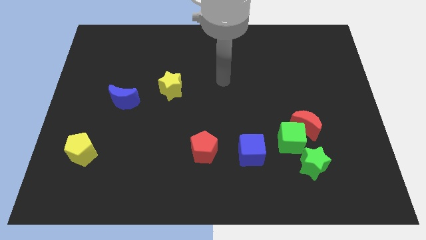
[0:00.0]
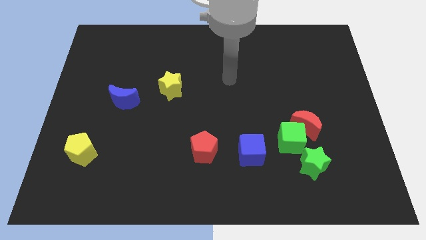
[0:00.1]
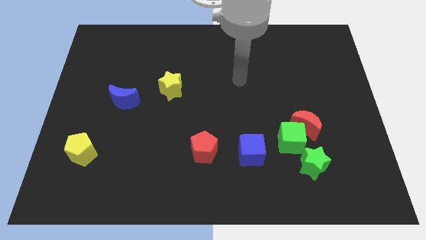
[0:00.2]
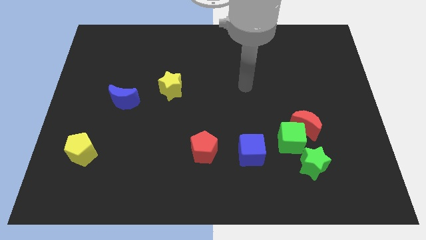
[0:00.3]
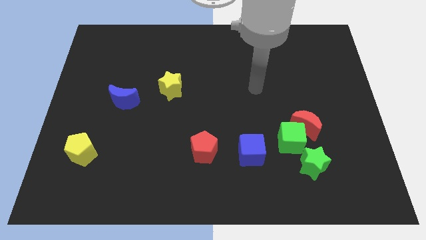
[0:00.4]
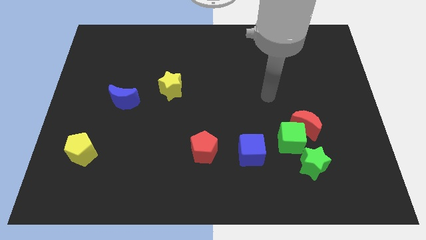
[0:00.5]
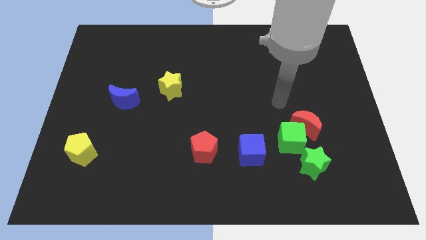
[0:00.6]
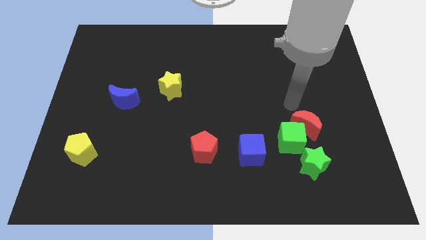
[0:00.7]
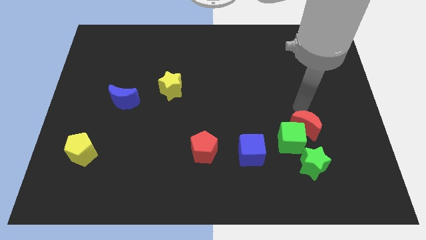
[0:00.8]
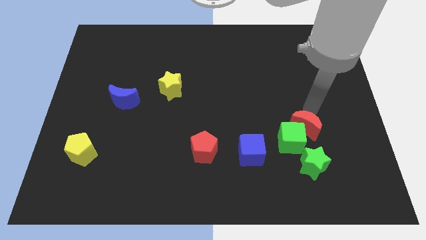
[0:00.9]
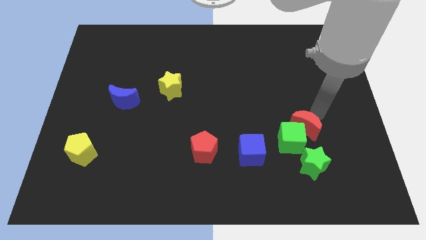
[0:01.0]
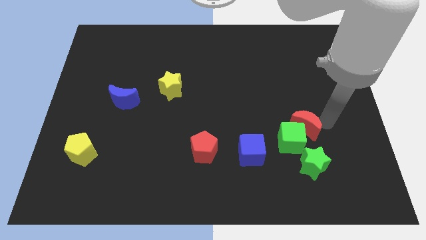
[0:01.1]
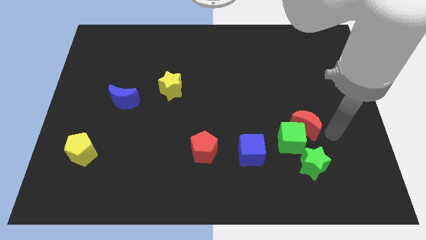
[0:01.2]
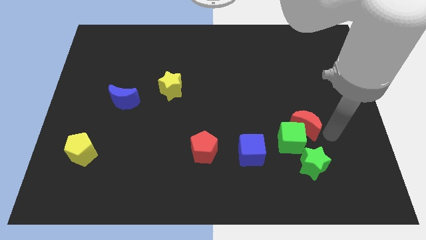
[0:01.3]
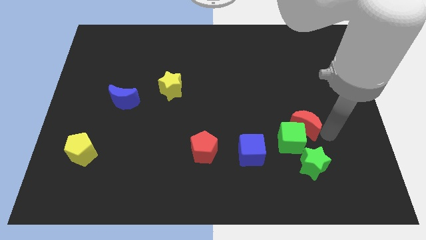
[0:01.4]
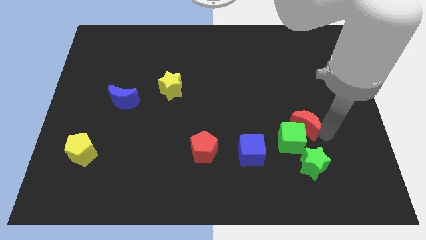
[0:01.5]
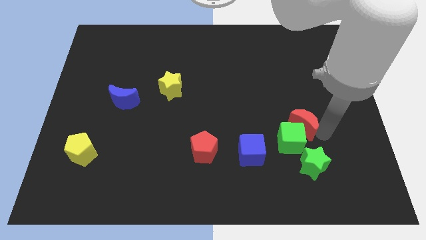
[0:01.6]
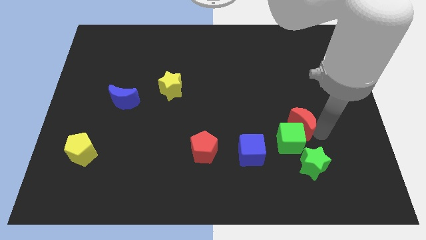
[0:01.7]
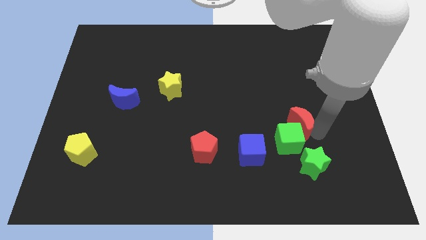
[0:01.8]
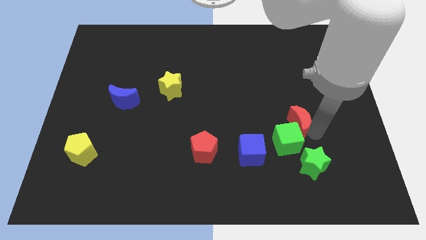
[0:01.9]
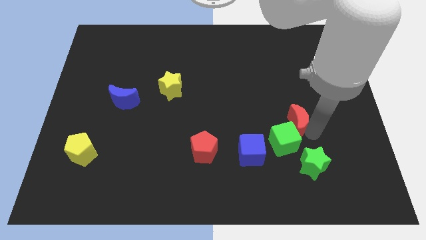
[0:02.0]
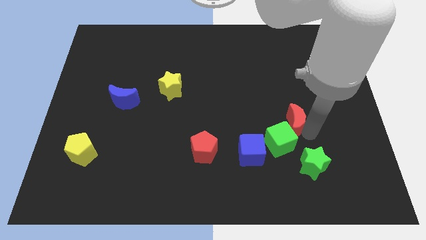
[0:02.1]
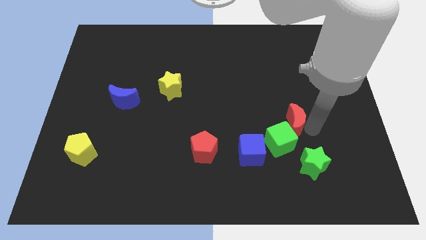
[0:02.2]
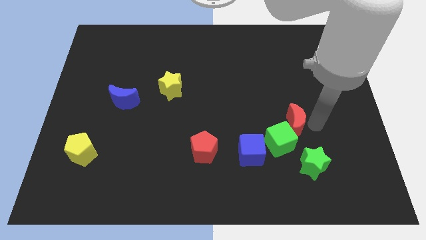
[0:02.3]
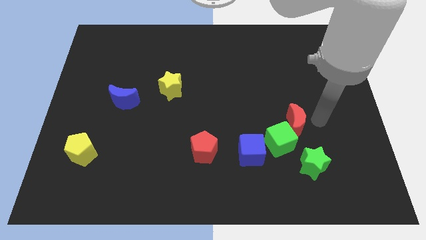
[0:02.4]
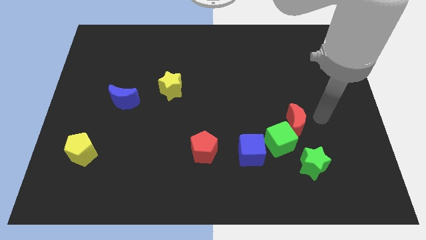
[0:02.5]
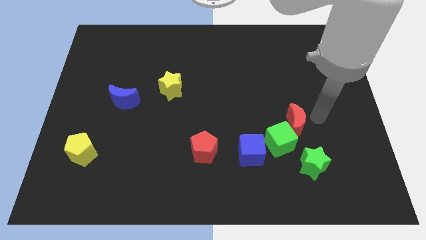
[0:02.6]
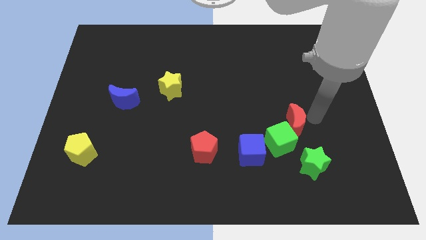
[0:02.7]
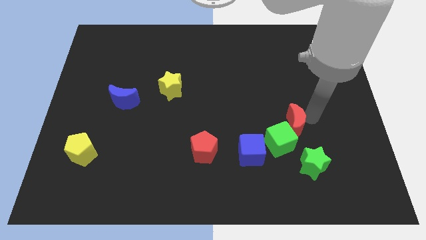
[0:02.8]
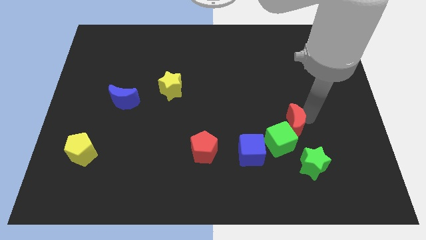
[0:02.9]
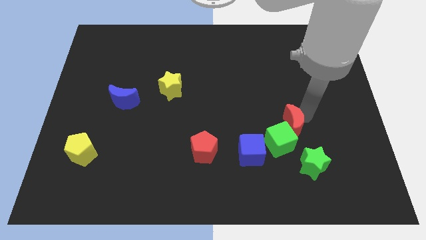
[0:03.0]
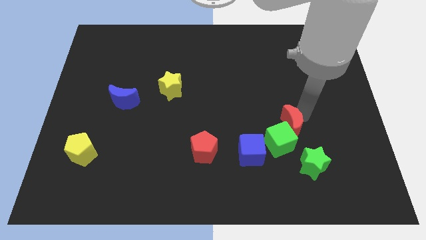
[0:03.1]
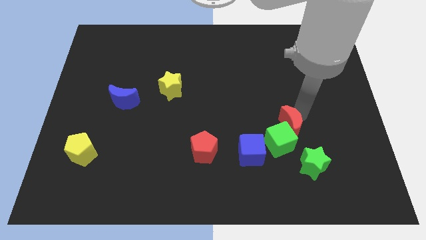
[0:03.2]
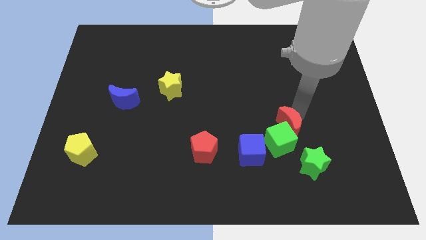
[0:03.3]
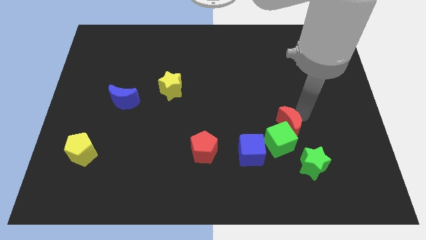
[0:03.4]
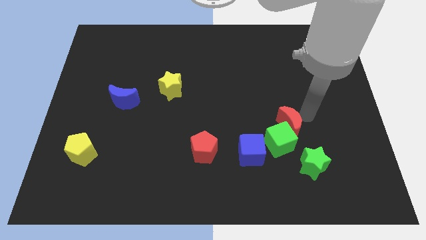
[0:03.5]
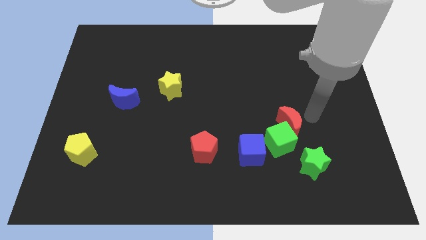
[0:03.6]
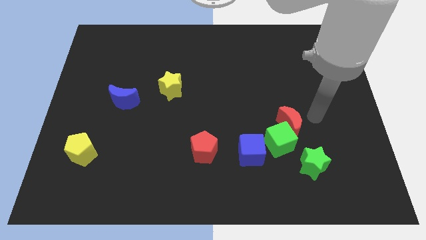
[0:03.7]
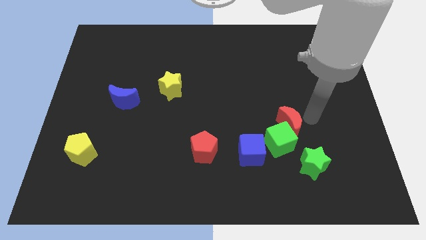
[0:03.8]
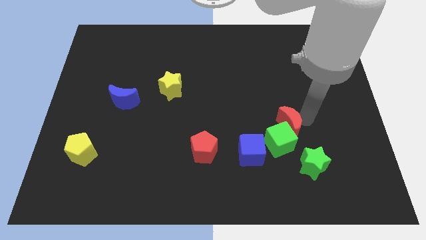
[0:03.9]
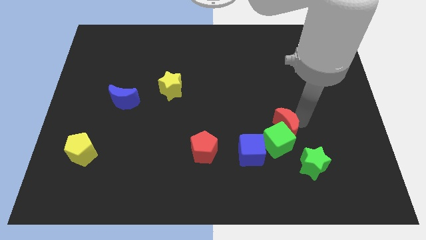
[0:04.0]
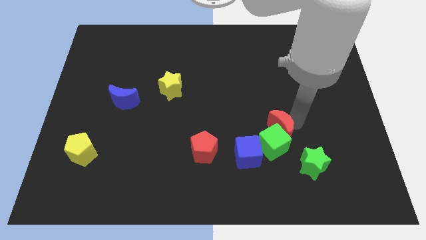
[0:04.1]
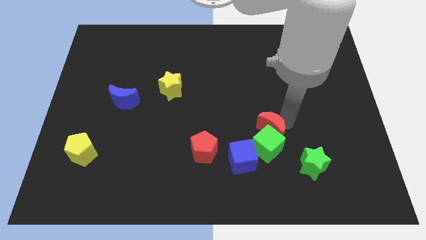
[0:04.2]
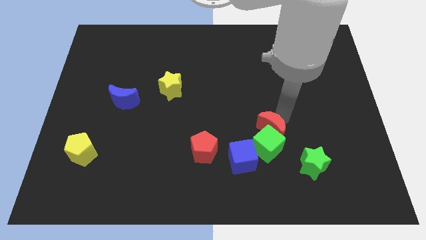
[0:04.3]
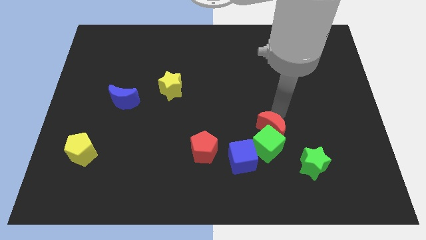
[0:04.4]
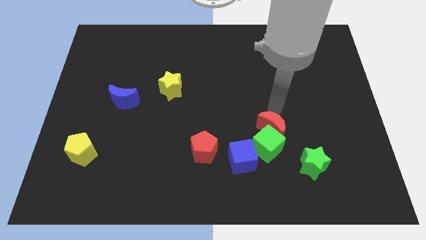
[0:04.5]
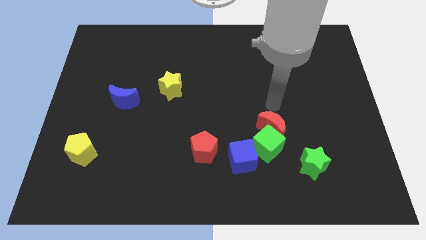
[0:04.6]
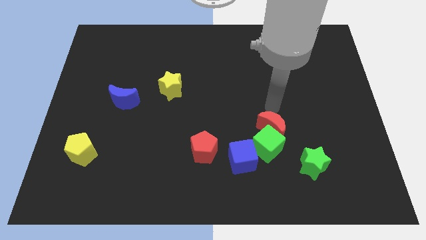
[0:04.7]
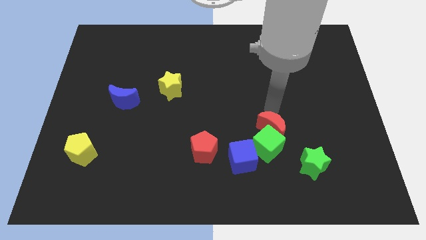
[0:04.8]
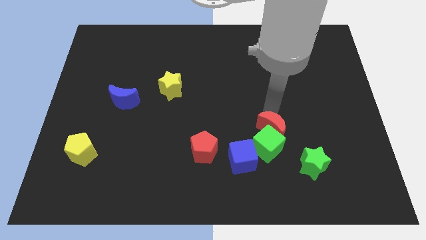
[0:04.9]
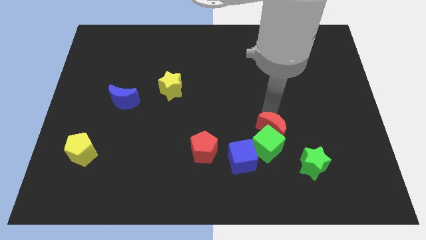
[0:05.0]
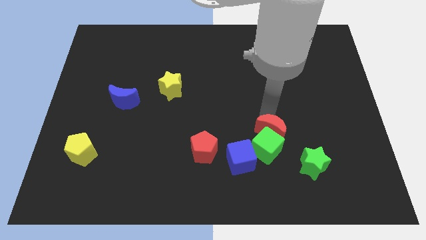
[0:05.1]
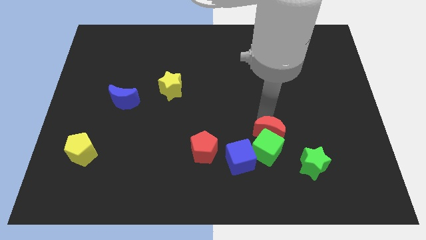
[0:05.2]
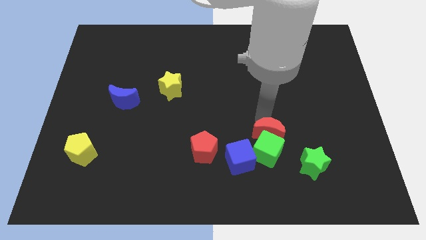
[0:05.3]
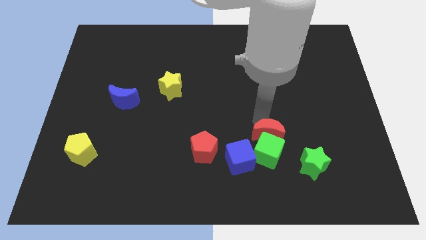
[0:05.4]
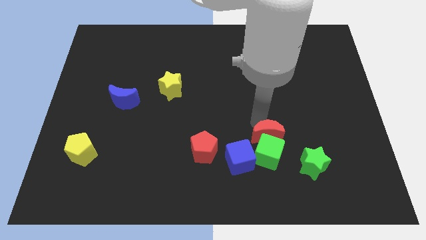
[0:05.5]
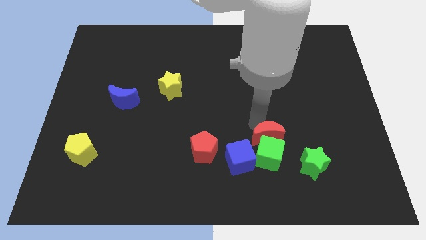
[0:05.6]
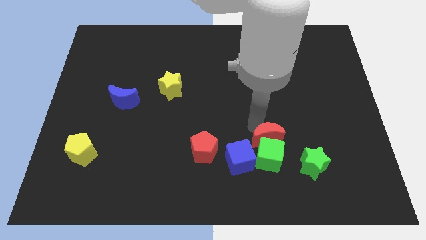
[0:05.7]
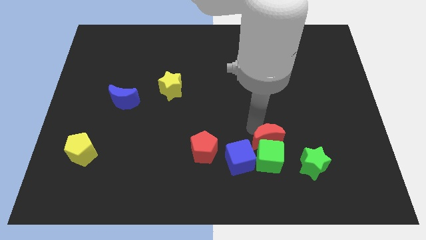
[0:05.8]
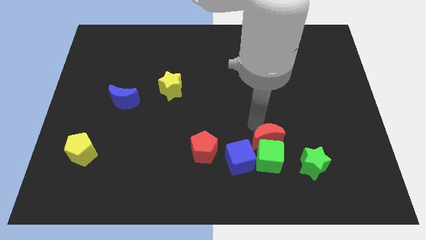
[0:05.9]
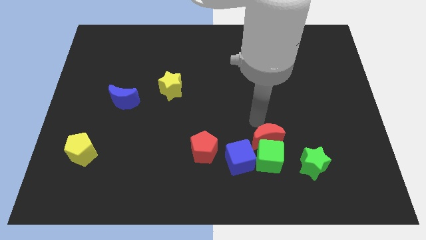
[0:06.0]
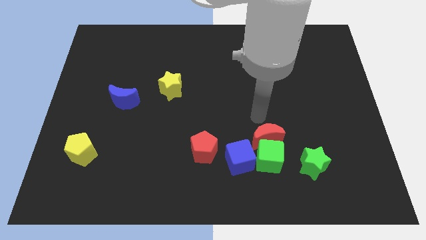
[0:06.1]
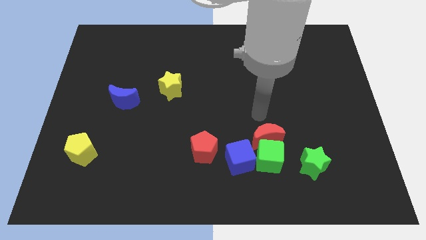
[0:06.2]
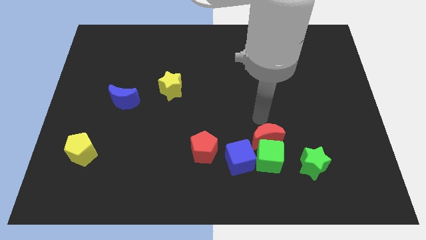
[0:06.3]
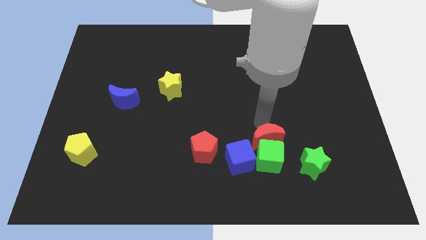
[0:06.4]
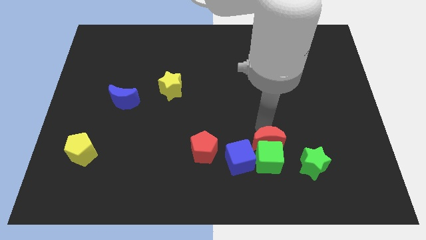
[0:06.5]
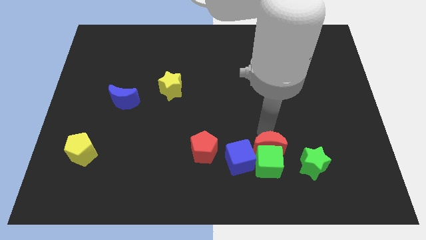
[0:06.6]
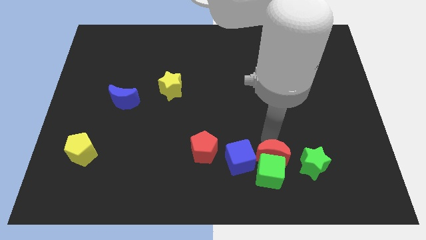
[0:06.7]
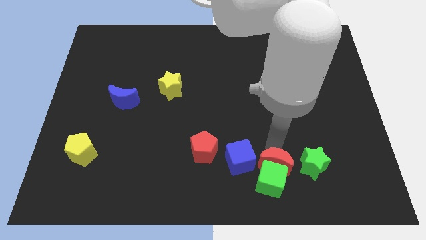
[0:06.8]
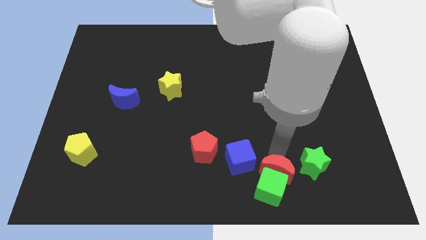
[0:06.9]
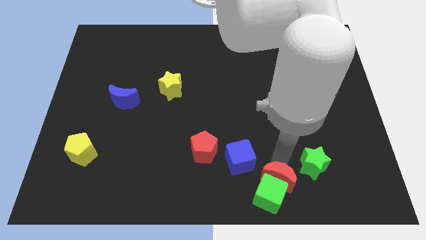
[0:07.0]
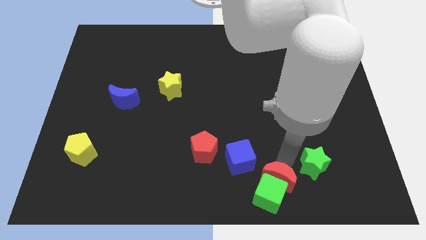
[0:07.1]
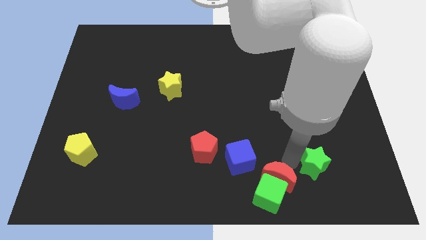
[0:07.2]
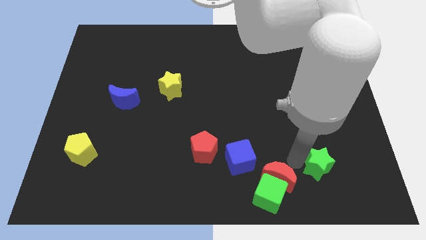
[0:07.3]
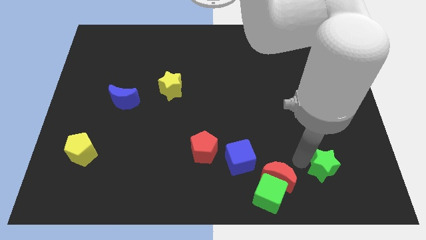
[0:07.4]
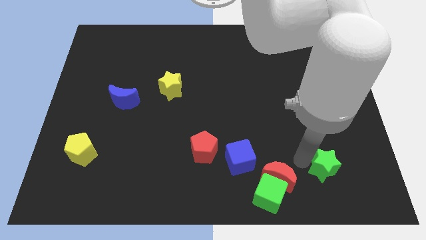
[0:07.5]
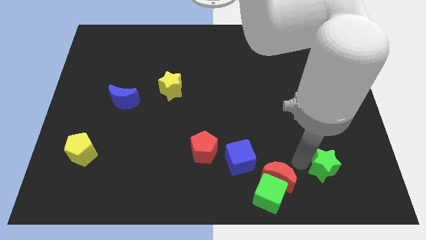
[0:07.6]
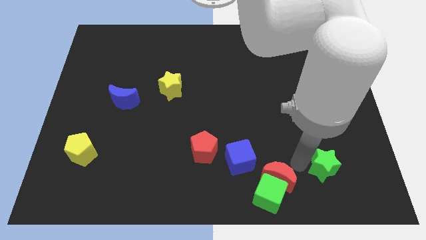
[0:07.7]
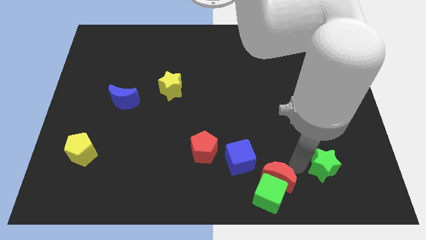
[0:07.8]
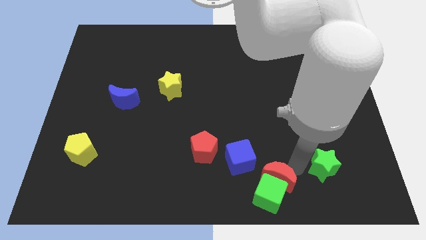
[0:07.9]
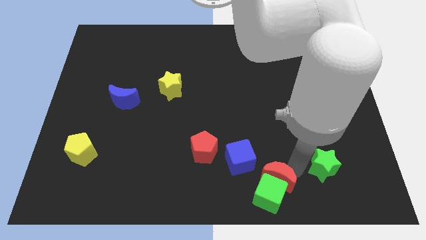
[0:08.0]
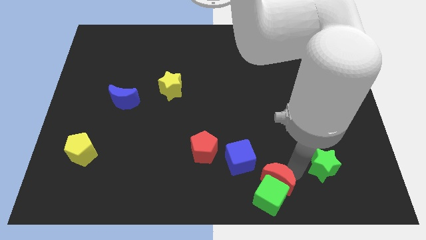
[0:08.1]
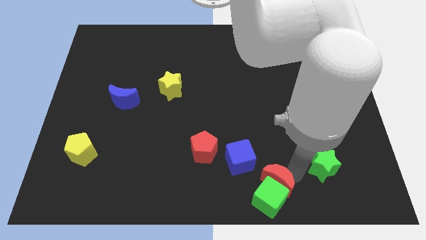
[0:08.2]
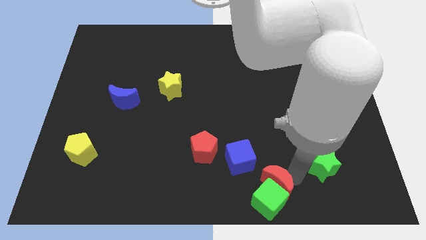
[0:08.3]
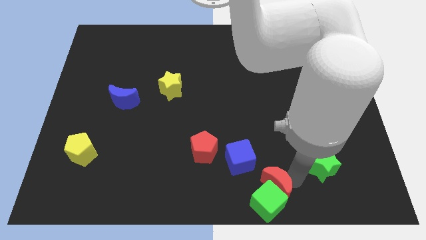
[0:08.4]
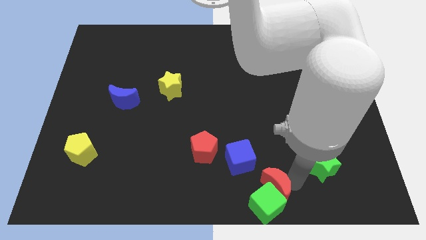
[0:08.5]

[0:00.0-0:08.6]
put the red moon to the bottom
